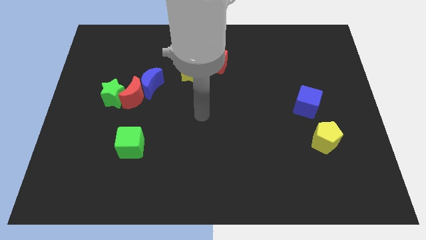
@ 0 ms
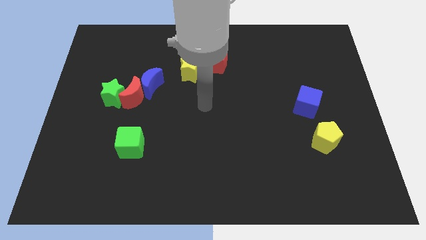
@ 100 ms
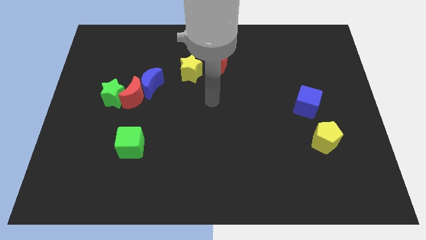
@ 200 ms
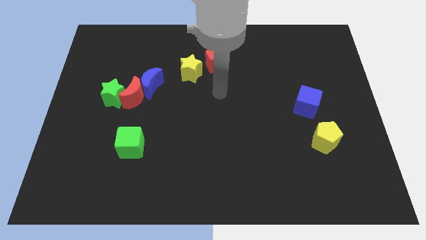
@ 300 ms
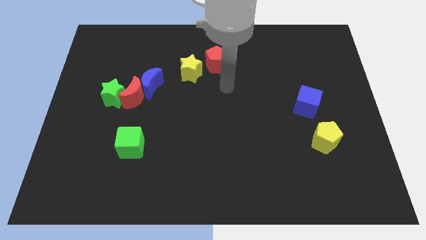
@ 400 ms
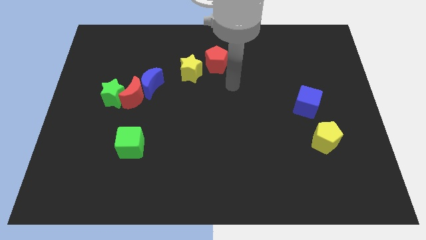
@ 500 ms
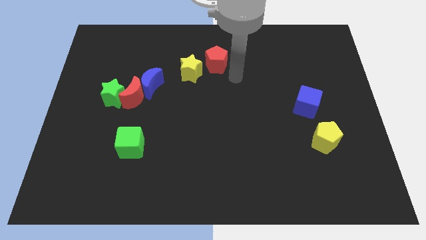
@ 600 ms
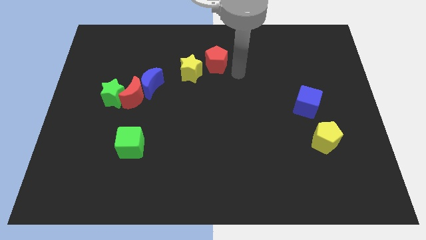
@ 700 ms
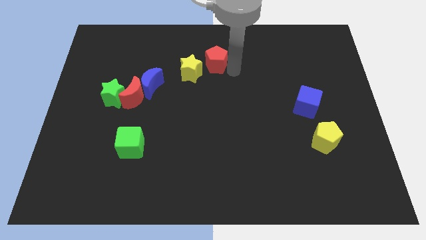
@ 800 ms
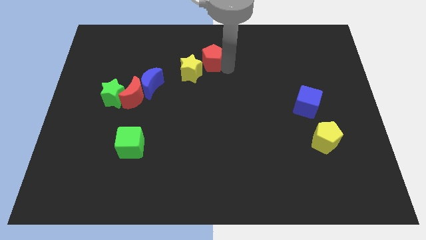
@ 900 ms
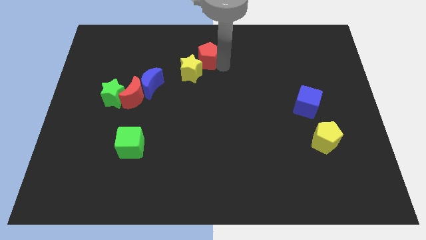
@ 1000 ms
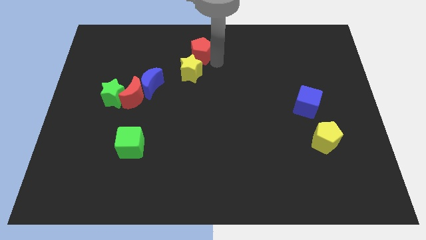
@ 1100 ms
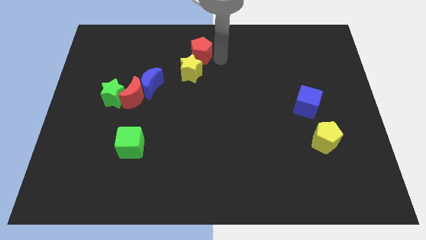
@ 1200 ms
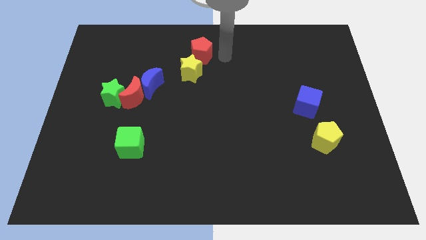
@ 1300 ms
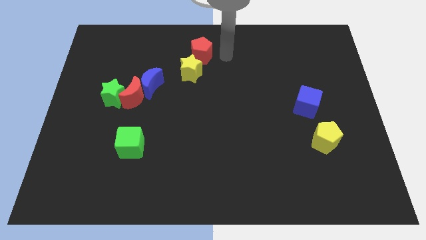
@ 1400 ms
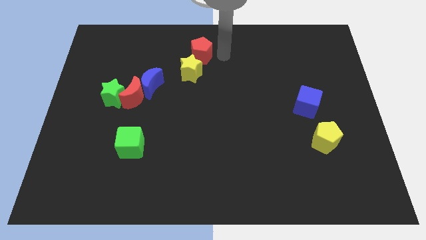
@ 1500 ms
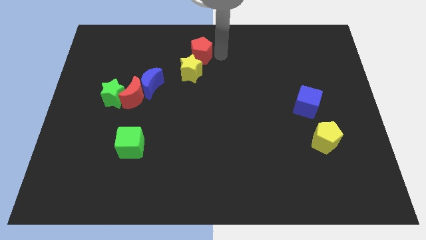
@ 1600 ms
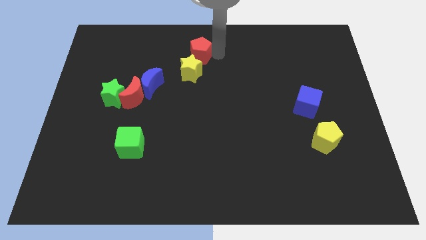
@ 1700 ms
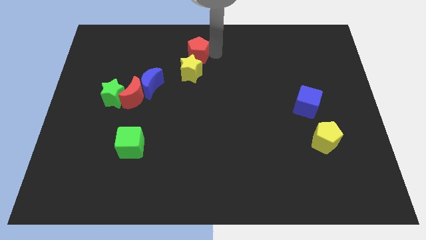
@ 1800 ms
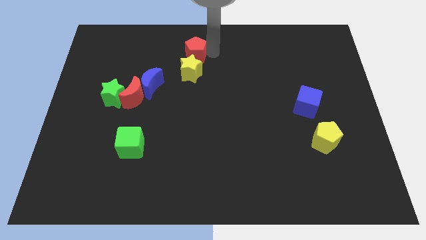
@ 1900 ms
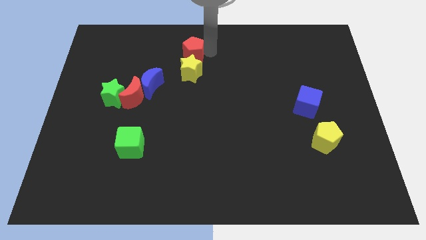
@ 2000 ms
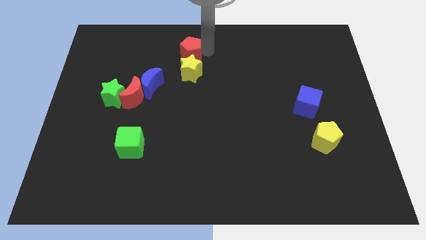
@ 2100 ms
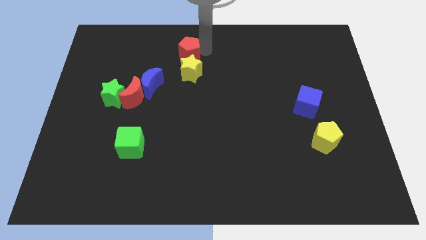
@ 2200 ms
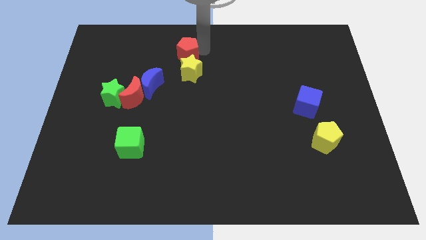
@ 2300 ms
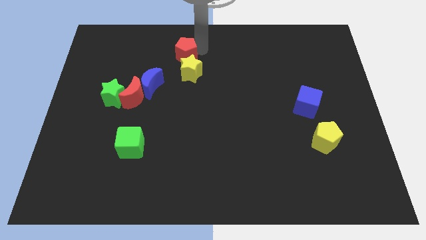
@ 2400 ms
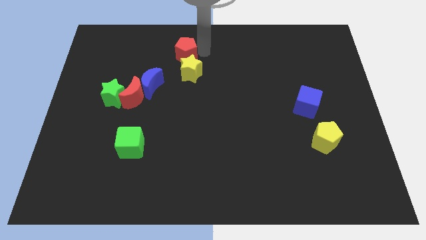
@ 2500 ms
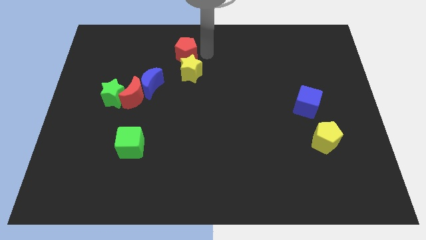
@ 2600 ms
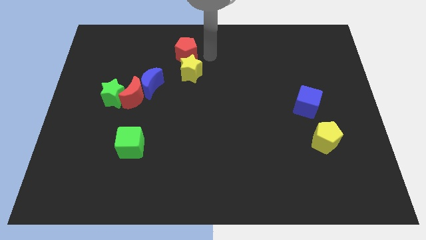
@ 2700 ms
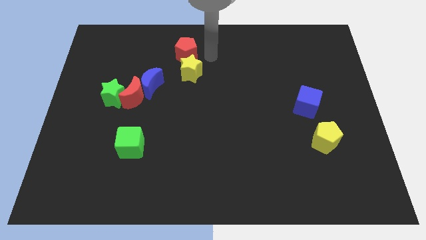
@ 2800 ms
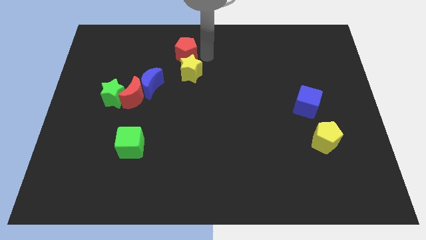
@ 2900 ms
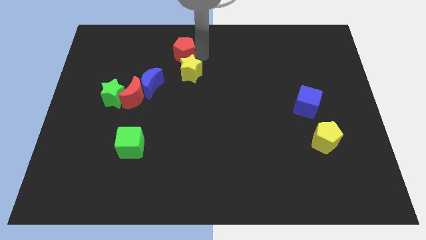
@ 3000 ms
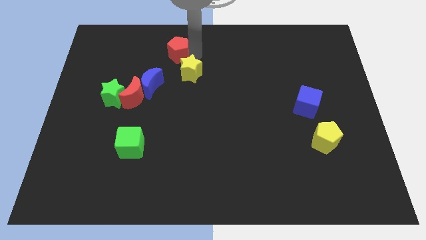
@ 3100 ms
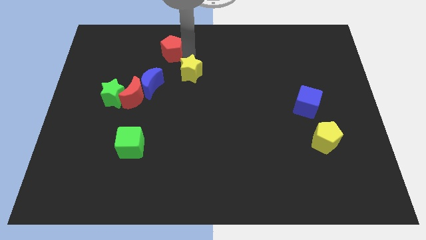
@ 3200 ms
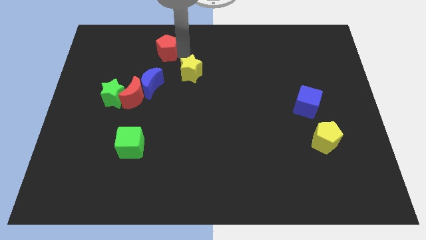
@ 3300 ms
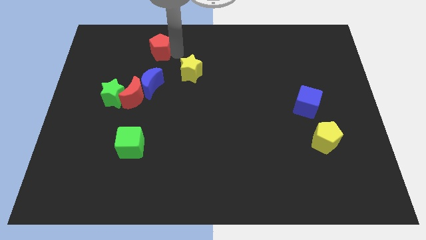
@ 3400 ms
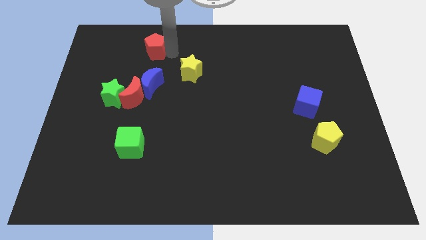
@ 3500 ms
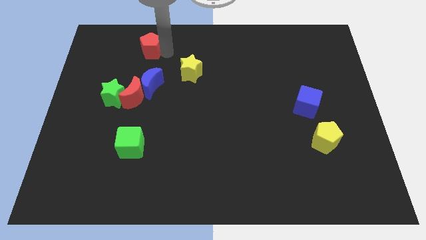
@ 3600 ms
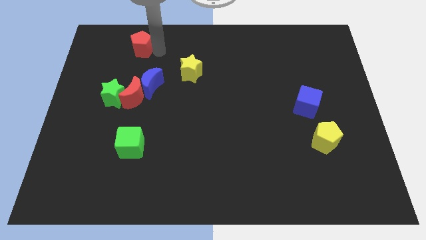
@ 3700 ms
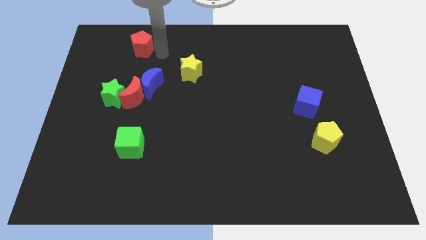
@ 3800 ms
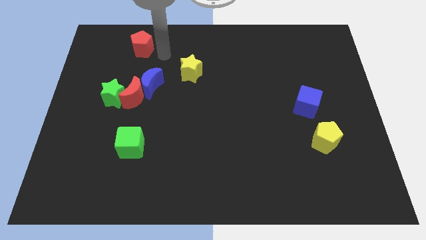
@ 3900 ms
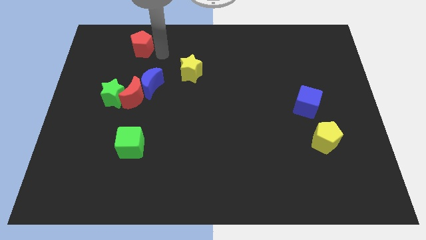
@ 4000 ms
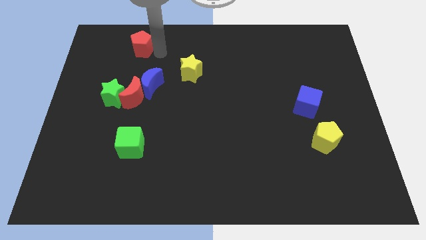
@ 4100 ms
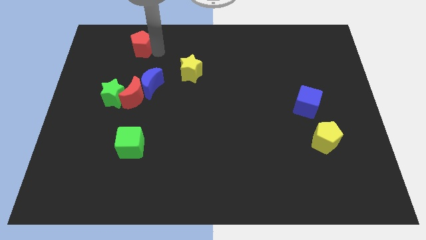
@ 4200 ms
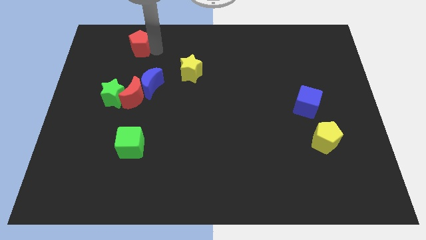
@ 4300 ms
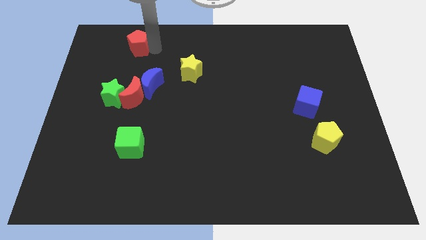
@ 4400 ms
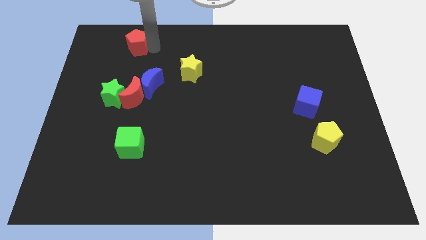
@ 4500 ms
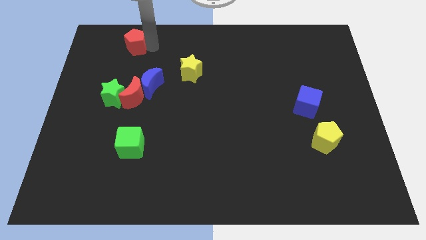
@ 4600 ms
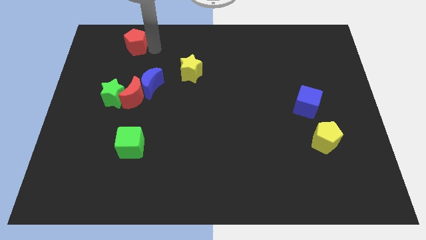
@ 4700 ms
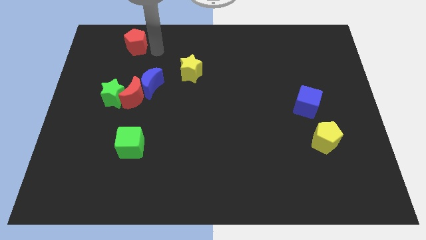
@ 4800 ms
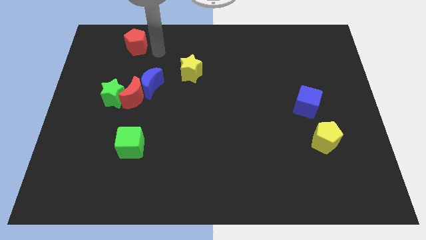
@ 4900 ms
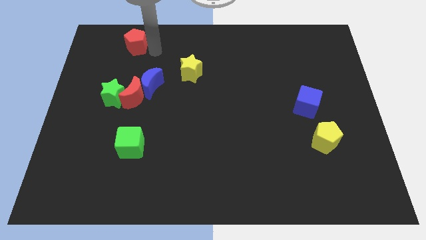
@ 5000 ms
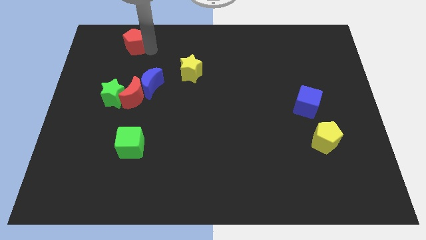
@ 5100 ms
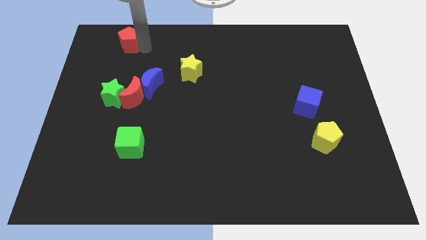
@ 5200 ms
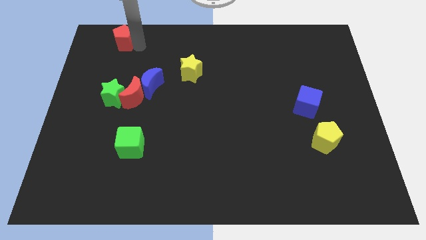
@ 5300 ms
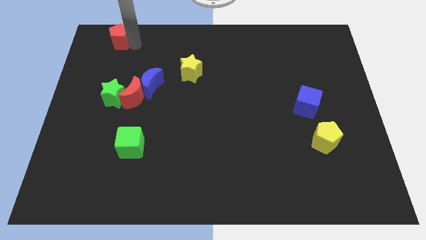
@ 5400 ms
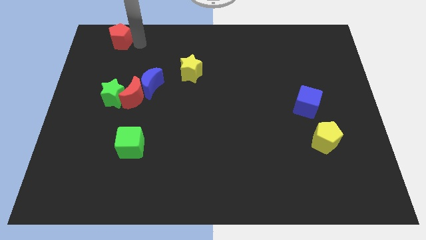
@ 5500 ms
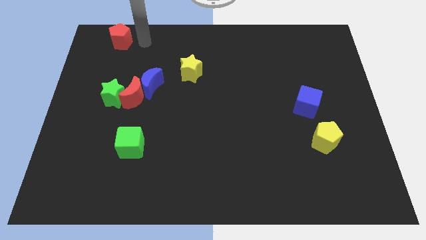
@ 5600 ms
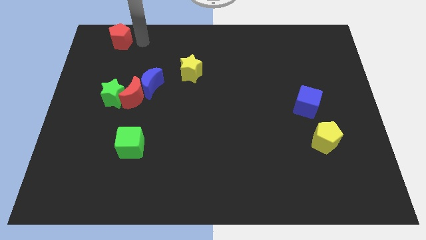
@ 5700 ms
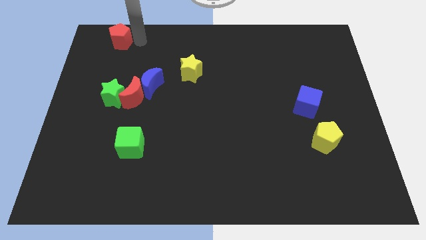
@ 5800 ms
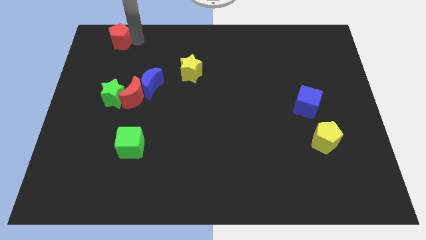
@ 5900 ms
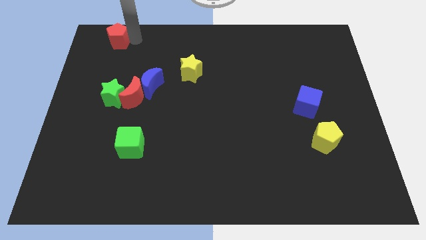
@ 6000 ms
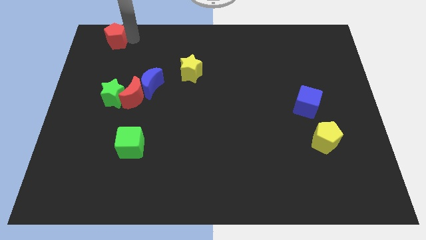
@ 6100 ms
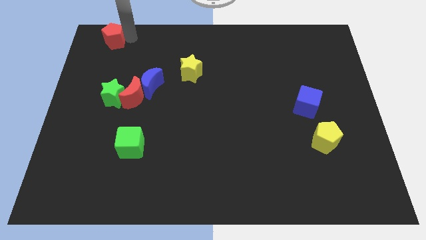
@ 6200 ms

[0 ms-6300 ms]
push the red pentagon to the top left of the board

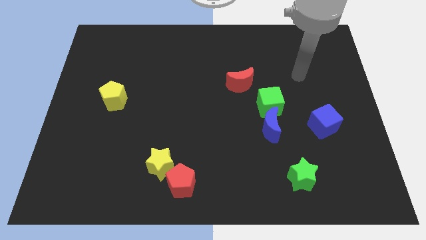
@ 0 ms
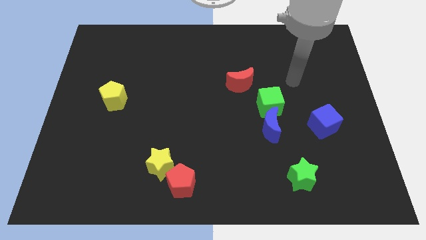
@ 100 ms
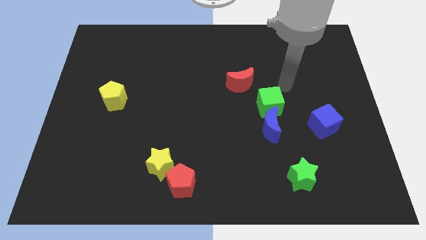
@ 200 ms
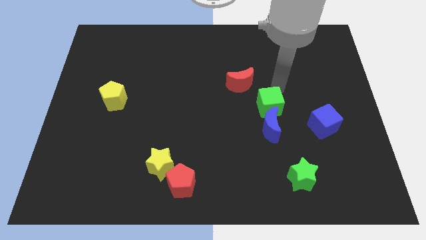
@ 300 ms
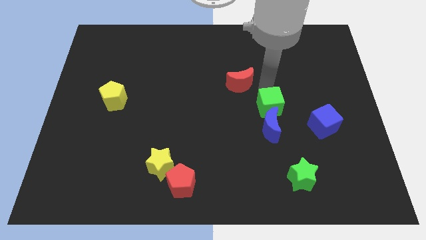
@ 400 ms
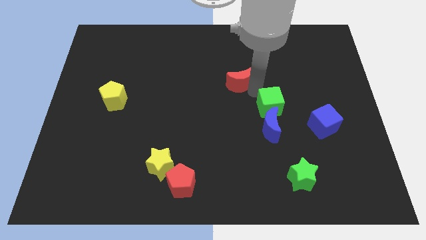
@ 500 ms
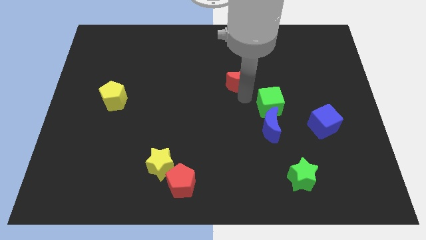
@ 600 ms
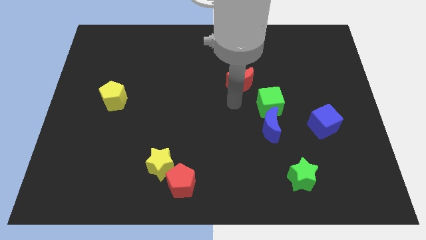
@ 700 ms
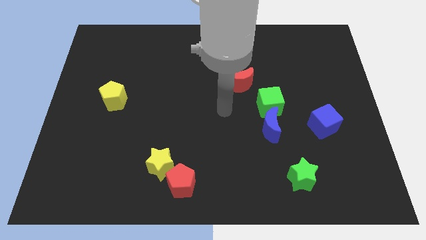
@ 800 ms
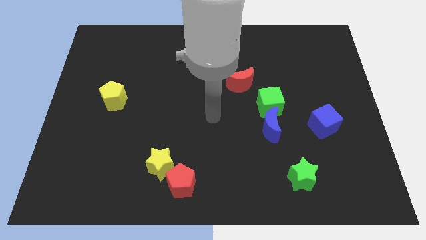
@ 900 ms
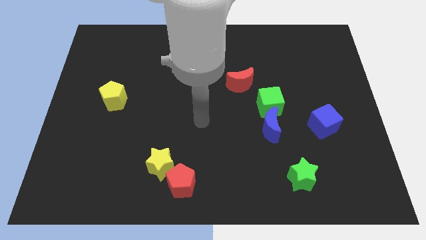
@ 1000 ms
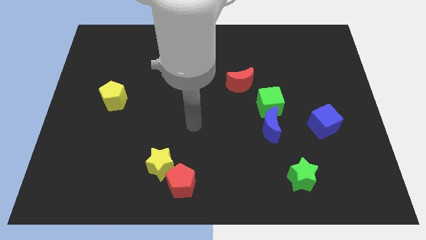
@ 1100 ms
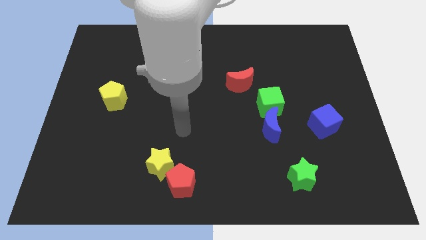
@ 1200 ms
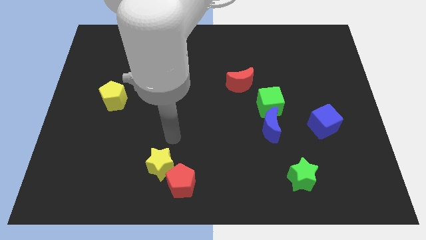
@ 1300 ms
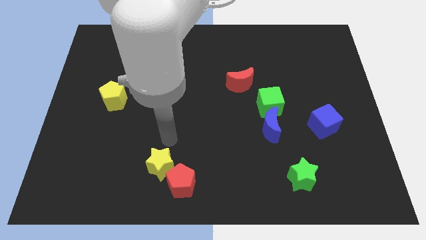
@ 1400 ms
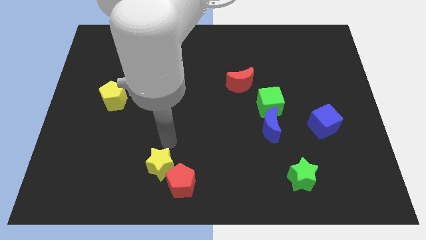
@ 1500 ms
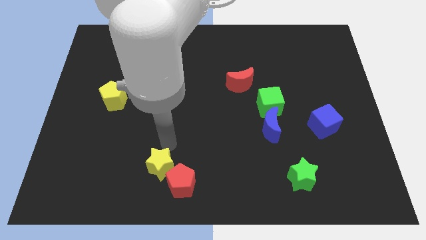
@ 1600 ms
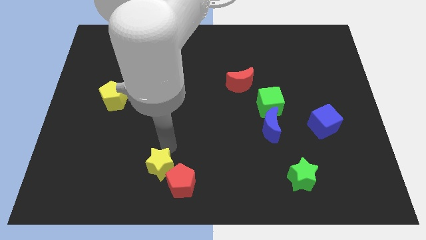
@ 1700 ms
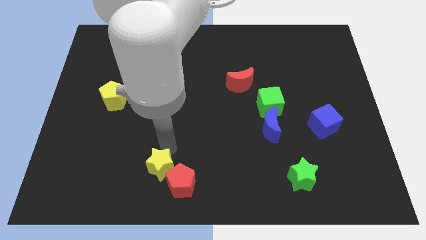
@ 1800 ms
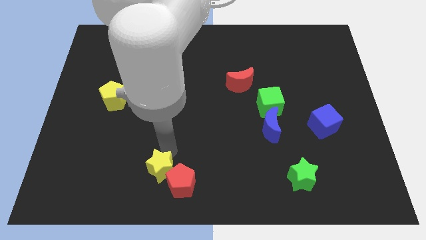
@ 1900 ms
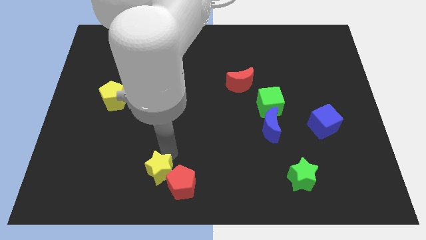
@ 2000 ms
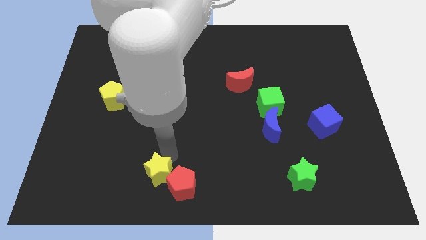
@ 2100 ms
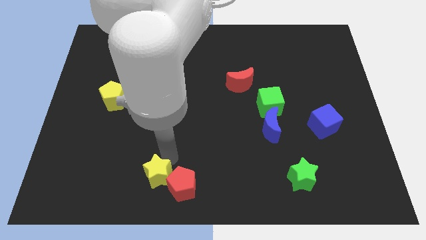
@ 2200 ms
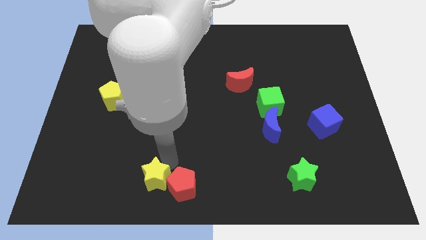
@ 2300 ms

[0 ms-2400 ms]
push the yellow star to the bottom side
